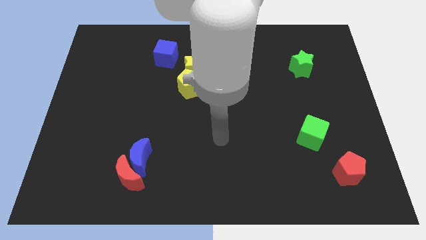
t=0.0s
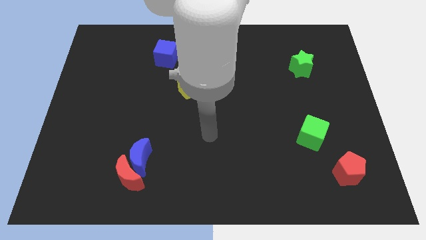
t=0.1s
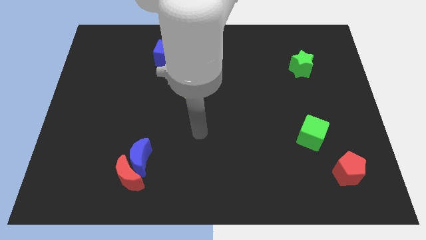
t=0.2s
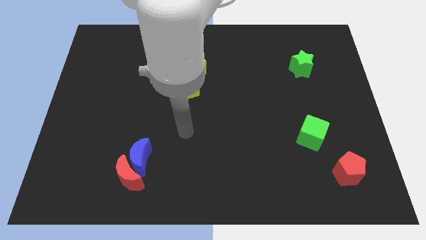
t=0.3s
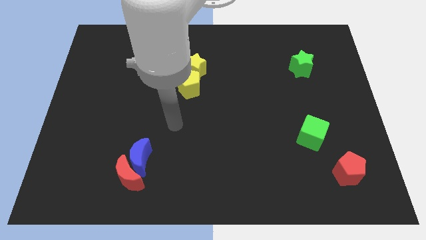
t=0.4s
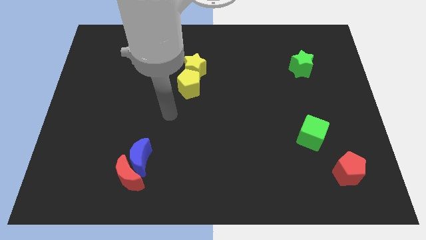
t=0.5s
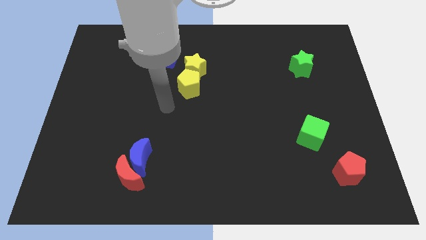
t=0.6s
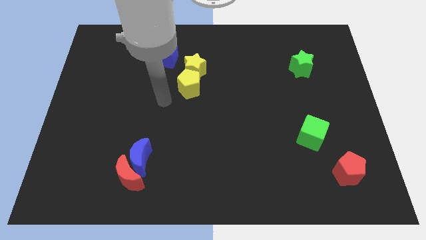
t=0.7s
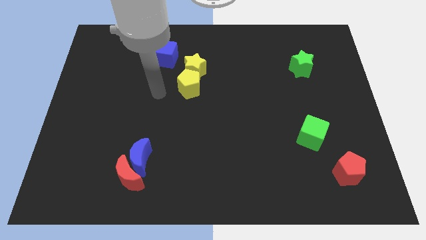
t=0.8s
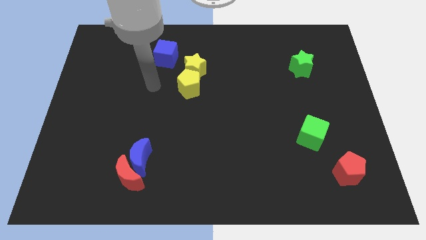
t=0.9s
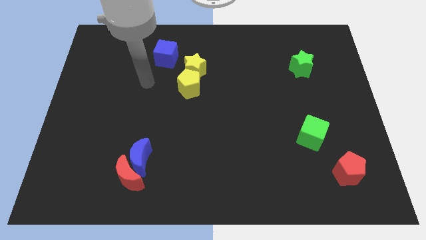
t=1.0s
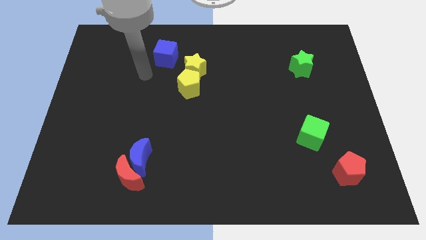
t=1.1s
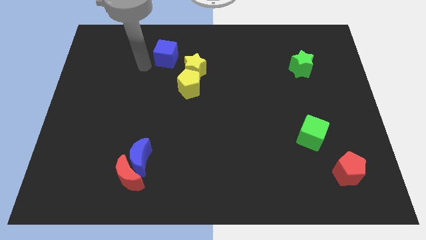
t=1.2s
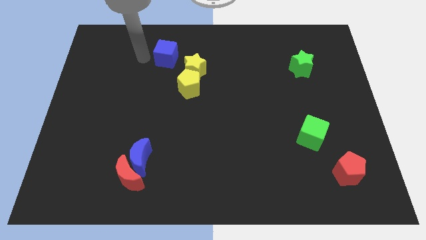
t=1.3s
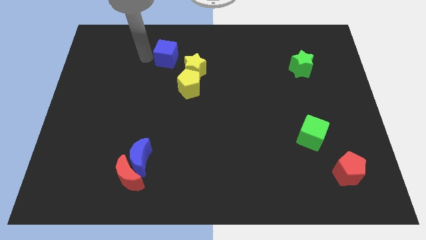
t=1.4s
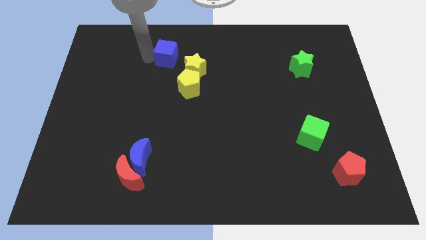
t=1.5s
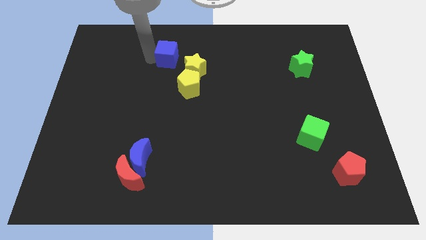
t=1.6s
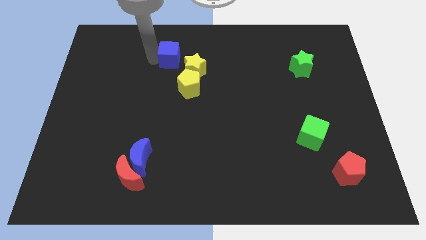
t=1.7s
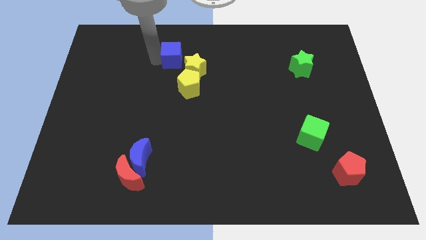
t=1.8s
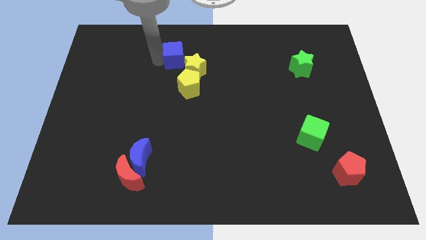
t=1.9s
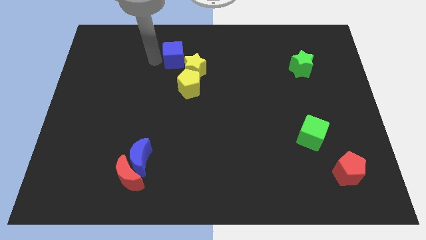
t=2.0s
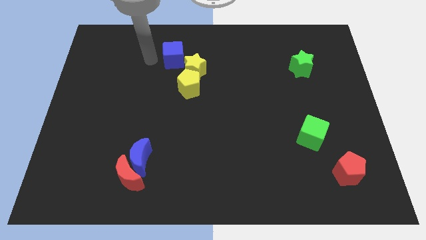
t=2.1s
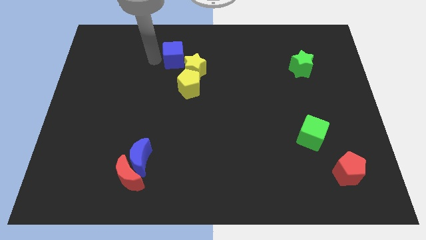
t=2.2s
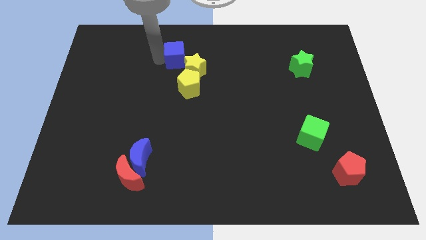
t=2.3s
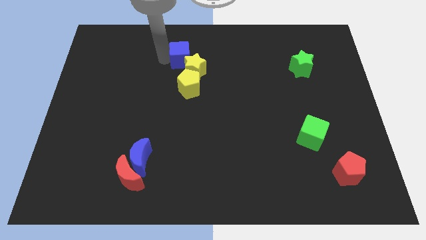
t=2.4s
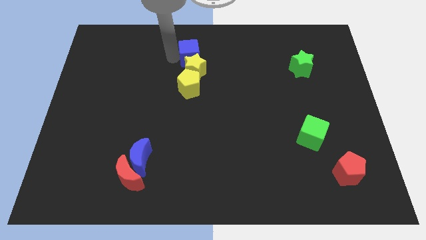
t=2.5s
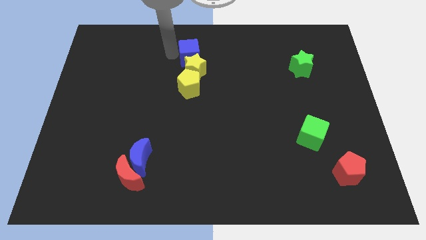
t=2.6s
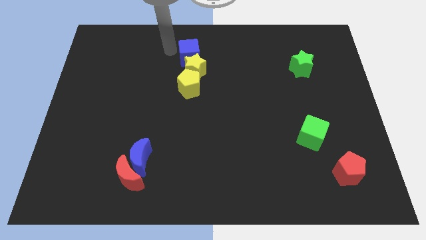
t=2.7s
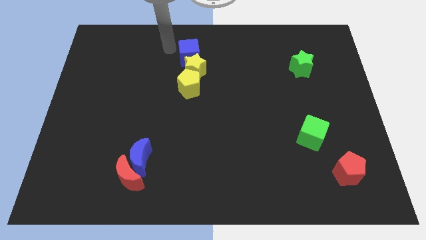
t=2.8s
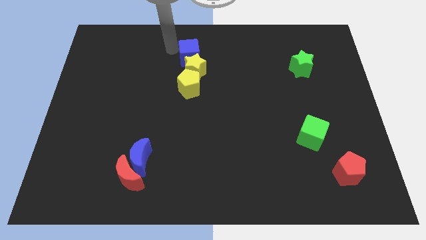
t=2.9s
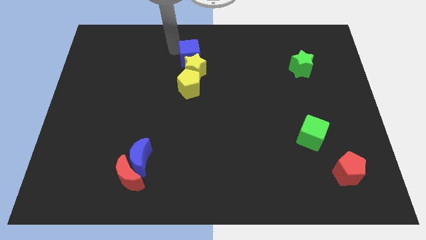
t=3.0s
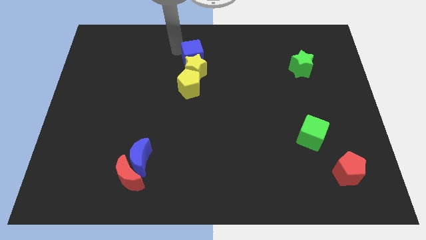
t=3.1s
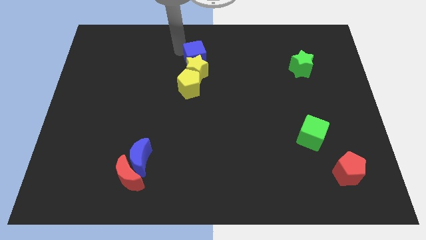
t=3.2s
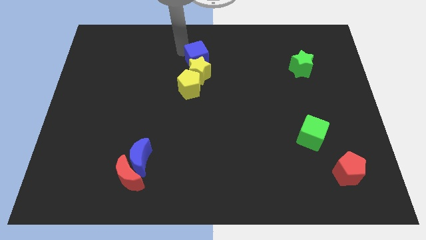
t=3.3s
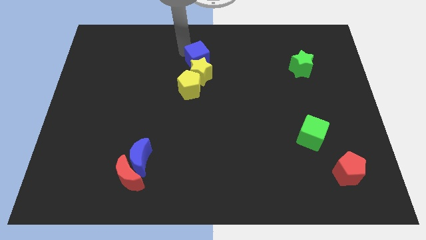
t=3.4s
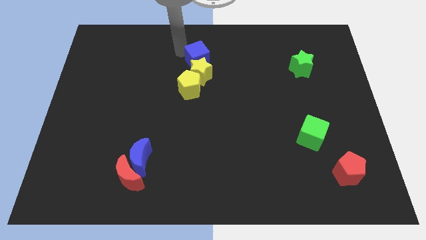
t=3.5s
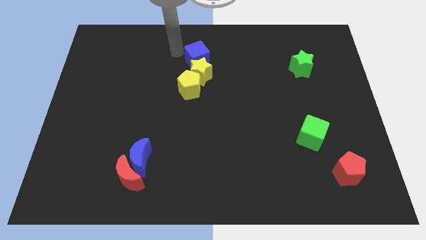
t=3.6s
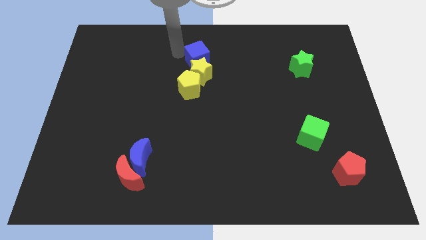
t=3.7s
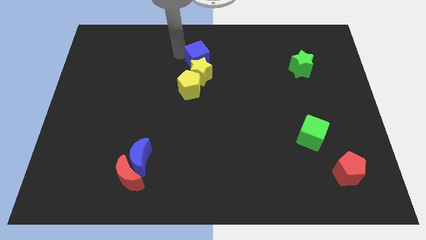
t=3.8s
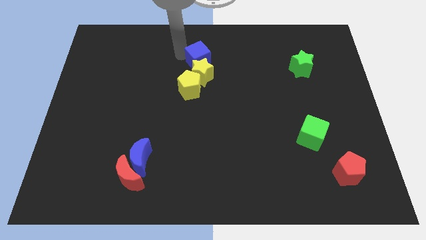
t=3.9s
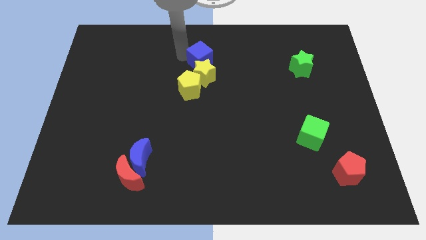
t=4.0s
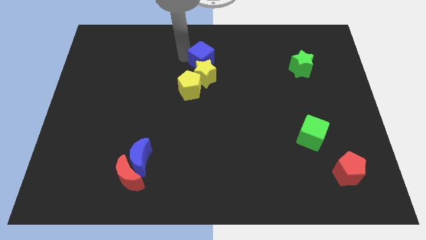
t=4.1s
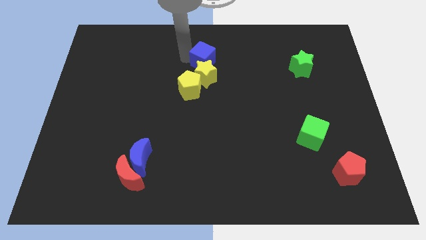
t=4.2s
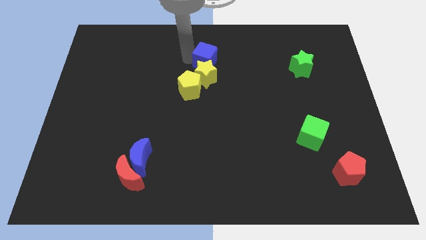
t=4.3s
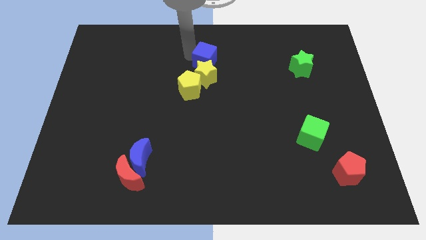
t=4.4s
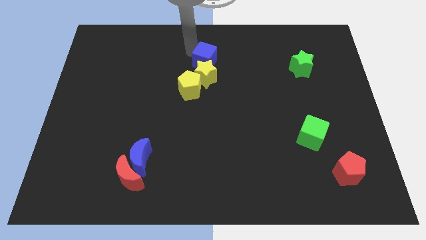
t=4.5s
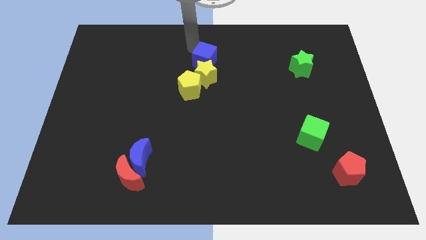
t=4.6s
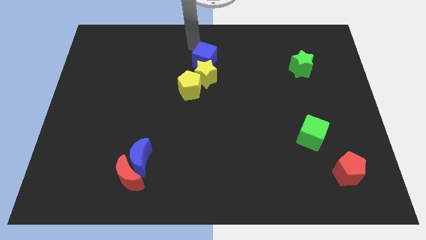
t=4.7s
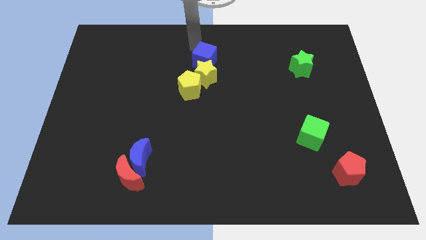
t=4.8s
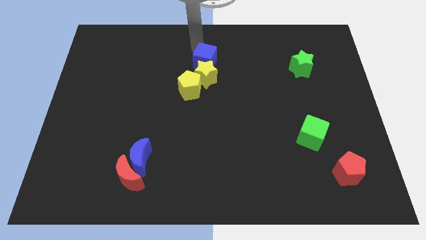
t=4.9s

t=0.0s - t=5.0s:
push the blue cube down and then to the right a bit

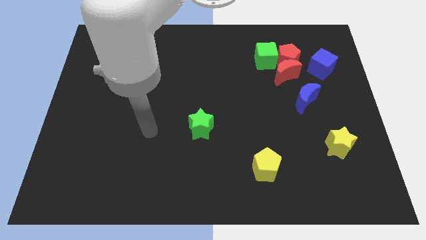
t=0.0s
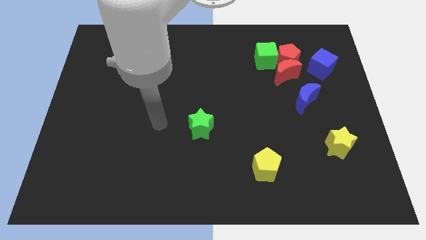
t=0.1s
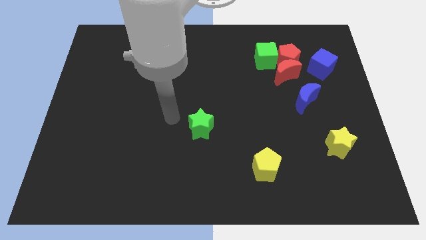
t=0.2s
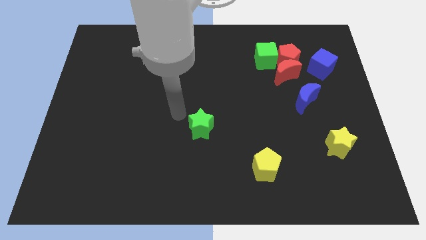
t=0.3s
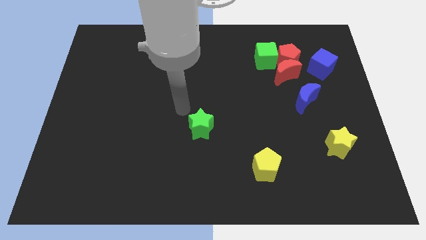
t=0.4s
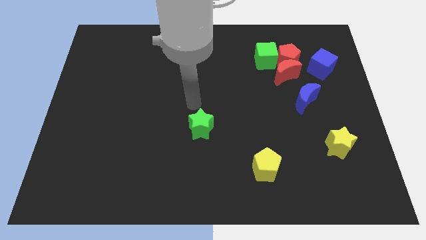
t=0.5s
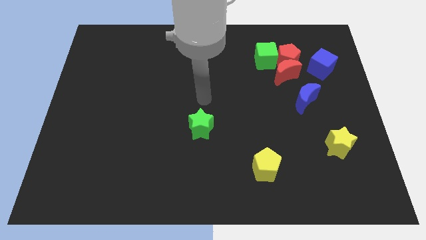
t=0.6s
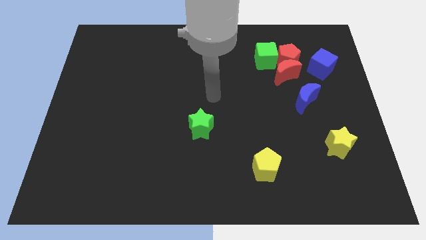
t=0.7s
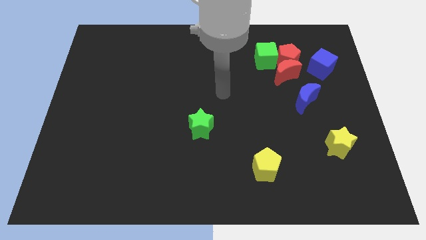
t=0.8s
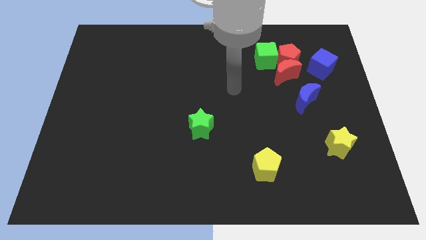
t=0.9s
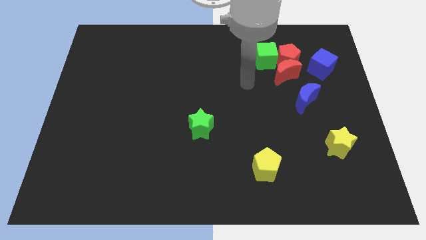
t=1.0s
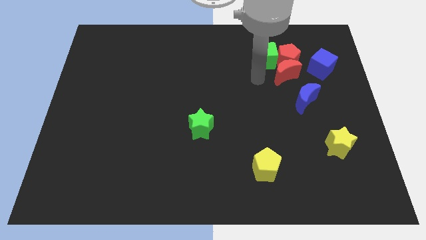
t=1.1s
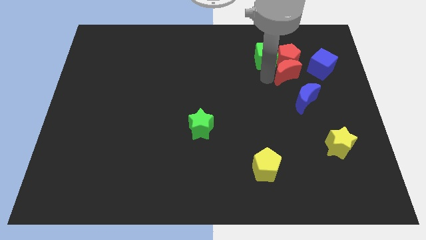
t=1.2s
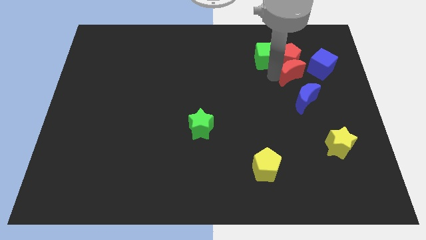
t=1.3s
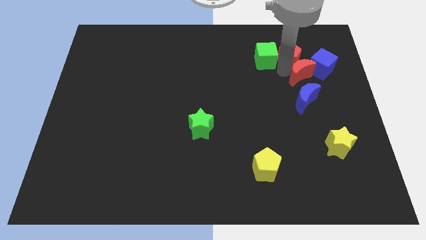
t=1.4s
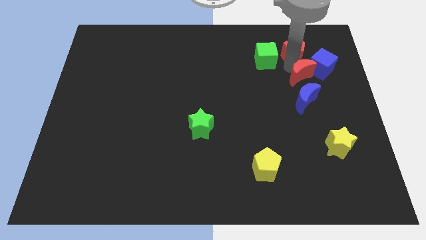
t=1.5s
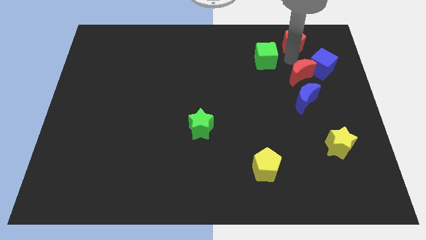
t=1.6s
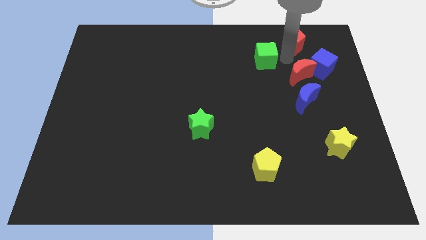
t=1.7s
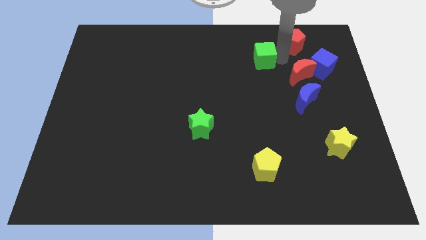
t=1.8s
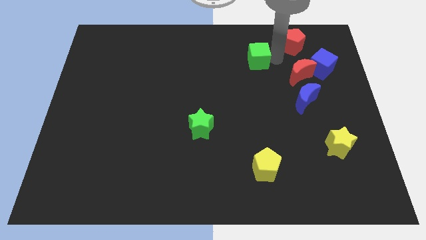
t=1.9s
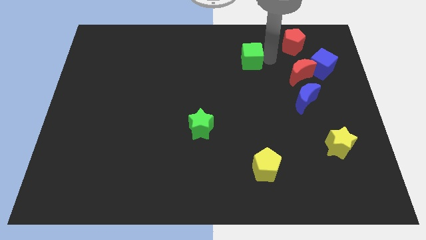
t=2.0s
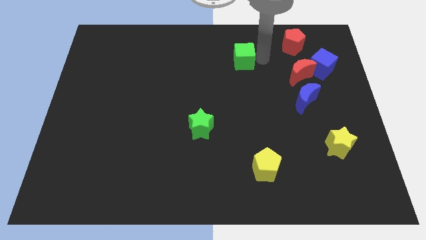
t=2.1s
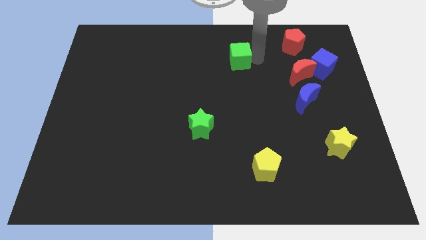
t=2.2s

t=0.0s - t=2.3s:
slightly move the green cube left

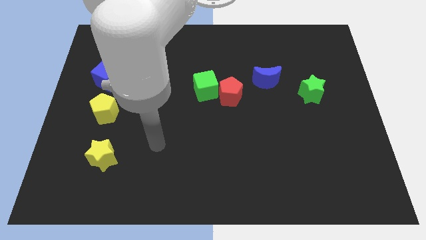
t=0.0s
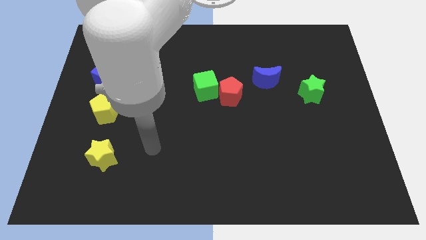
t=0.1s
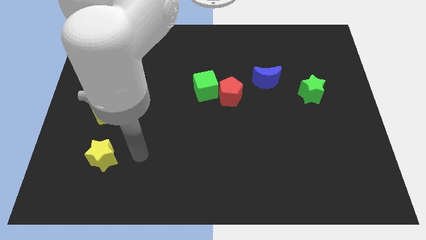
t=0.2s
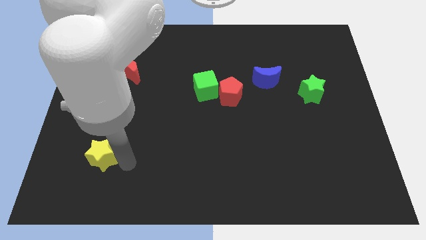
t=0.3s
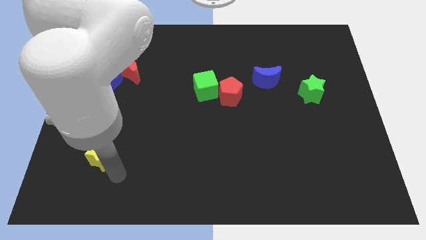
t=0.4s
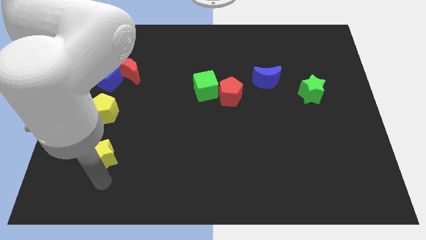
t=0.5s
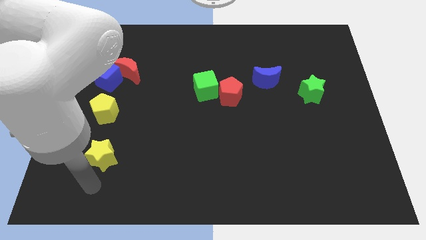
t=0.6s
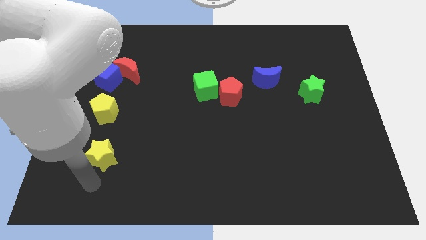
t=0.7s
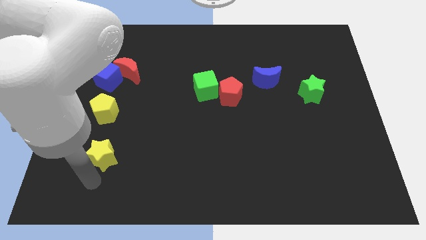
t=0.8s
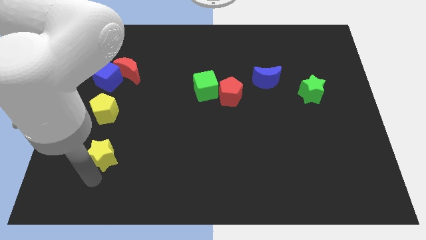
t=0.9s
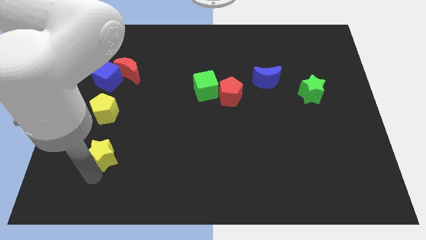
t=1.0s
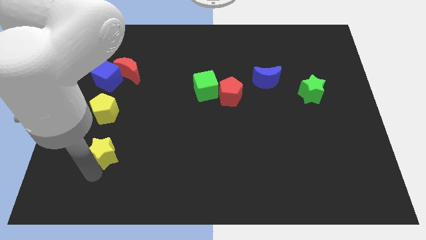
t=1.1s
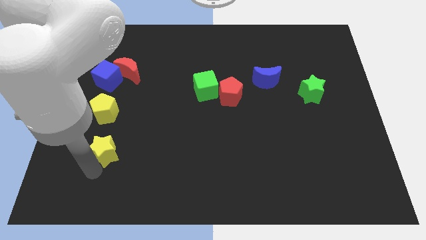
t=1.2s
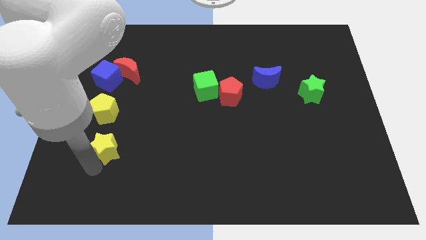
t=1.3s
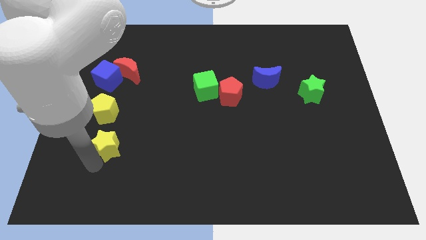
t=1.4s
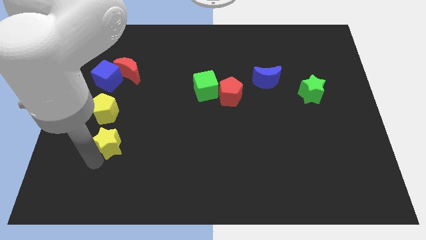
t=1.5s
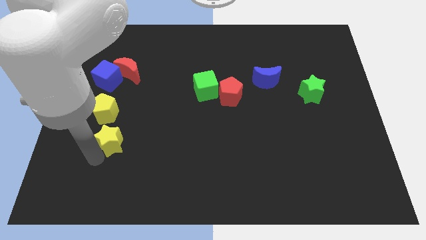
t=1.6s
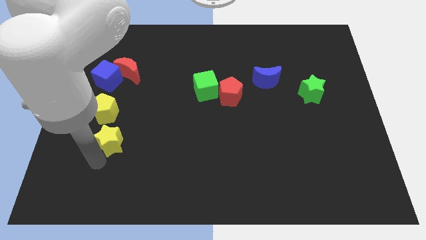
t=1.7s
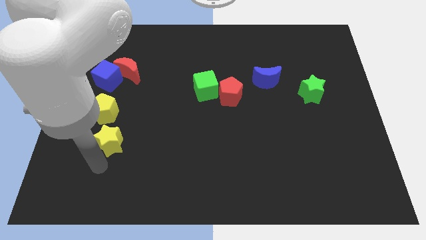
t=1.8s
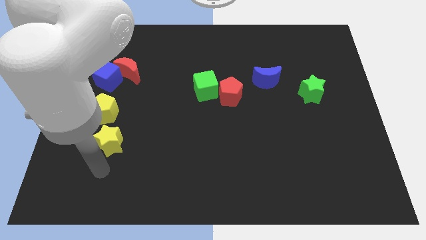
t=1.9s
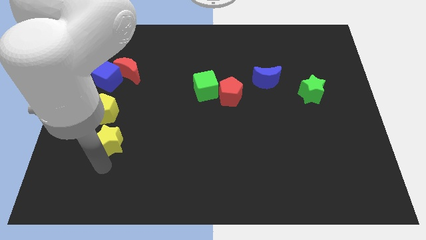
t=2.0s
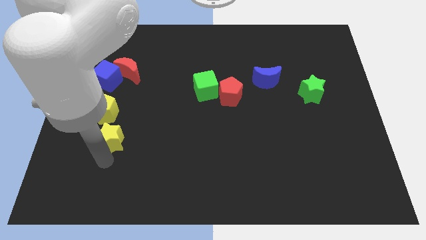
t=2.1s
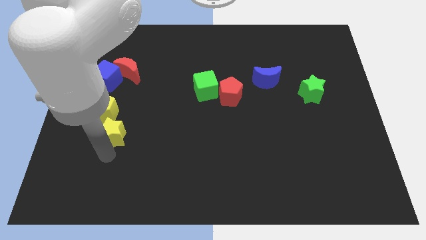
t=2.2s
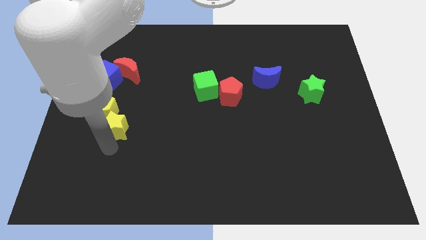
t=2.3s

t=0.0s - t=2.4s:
push the yellow star a little up
